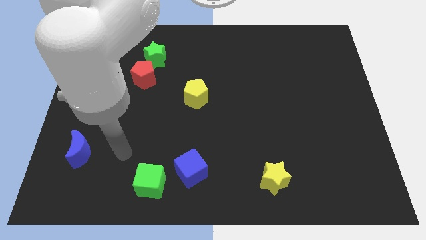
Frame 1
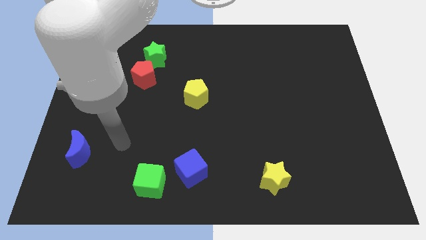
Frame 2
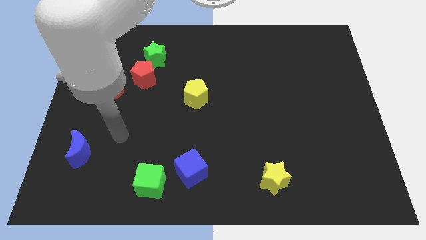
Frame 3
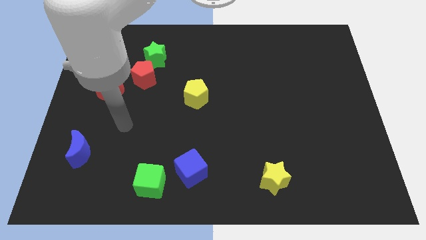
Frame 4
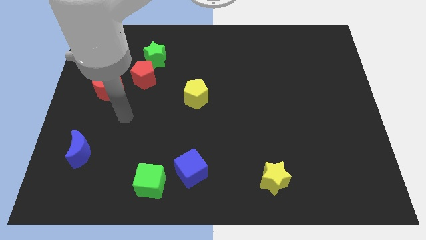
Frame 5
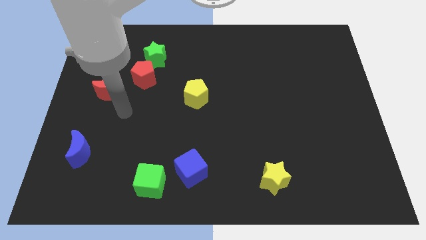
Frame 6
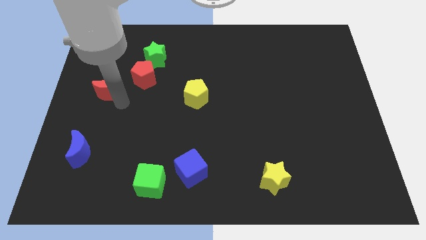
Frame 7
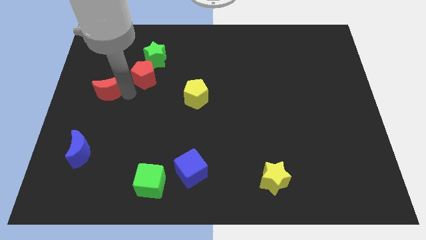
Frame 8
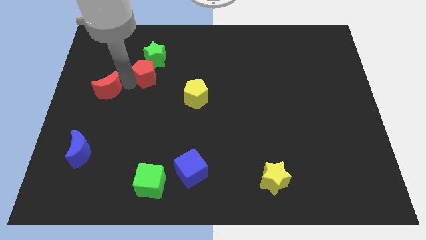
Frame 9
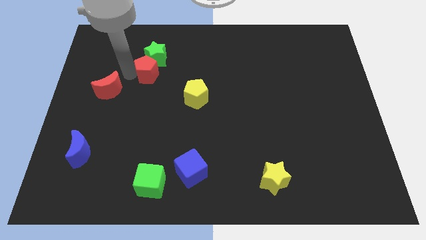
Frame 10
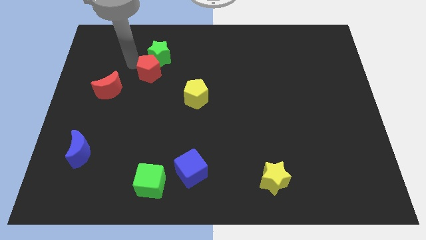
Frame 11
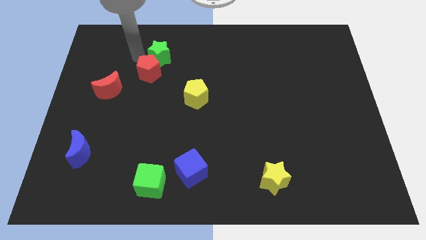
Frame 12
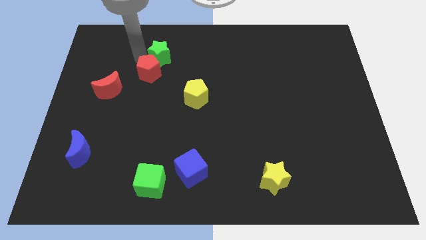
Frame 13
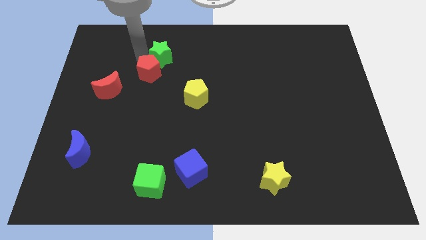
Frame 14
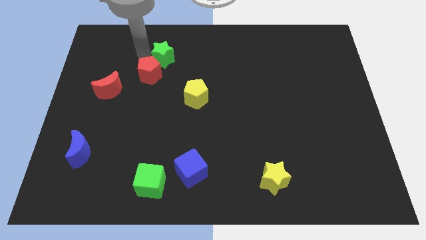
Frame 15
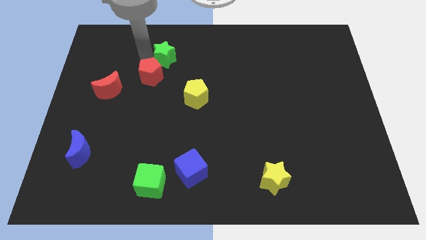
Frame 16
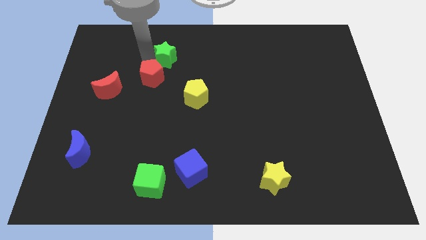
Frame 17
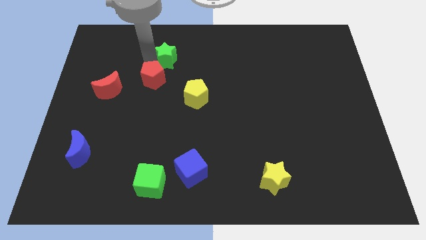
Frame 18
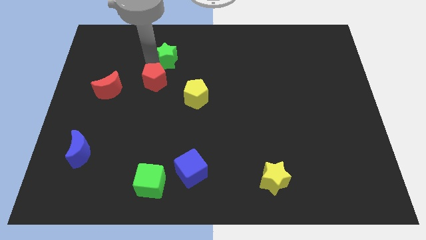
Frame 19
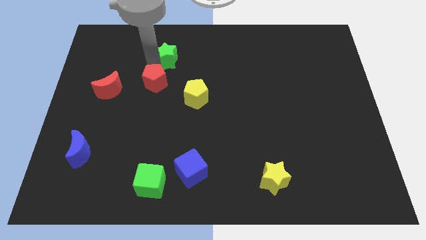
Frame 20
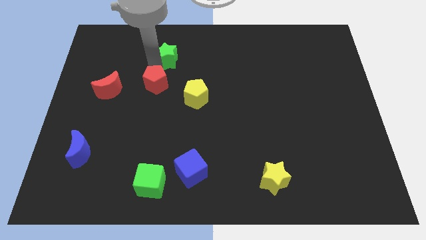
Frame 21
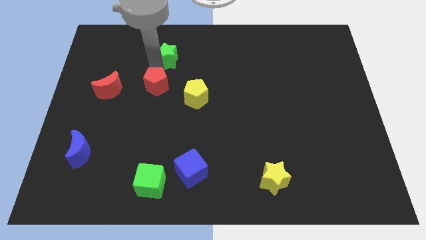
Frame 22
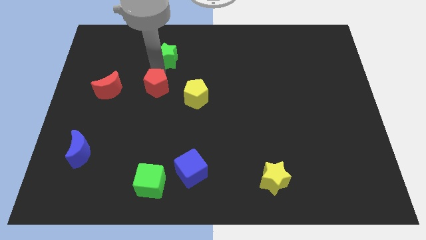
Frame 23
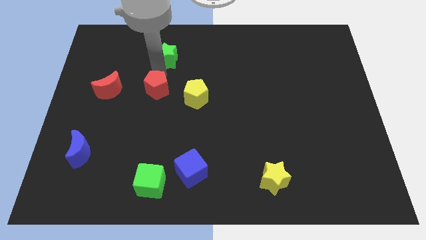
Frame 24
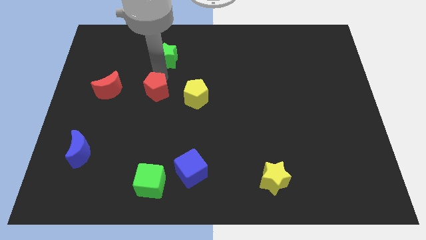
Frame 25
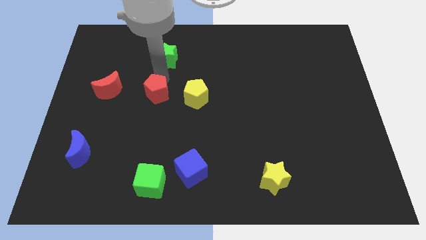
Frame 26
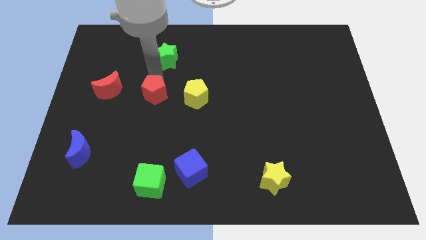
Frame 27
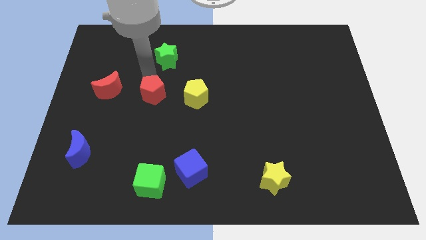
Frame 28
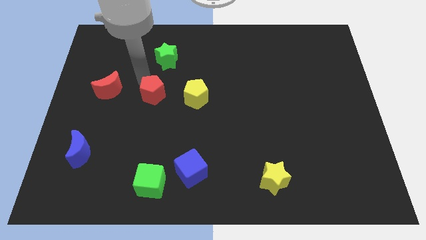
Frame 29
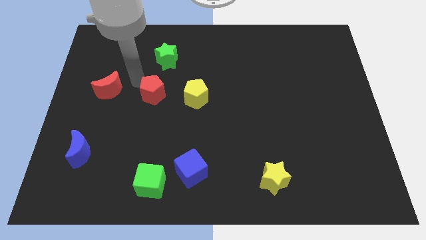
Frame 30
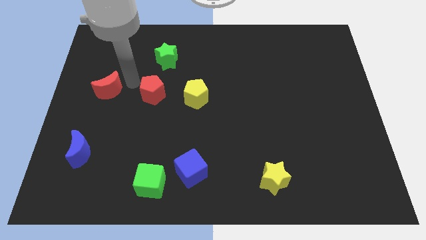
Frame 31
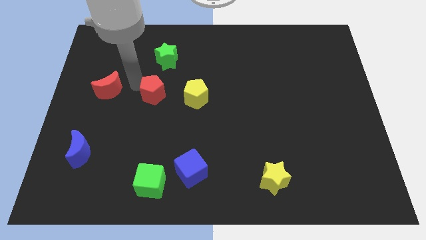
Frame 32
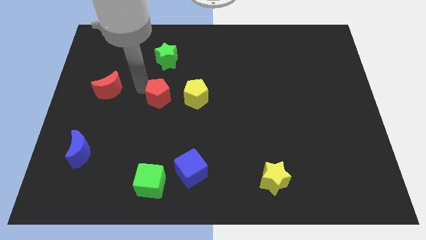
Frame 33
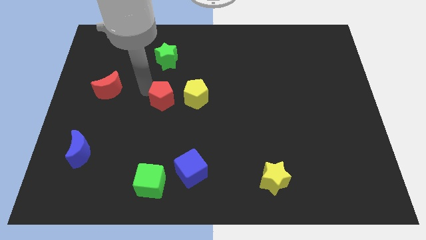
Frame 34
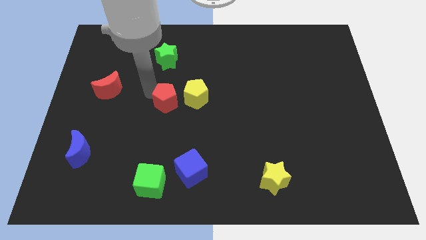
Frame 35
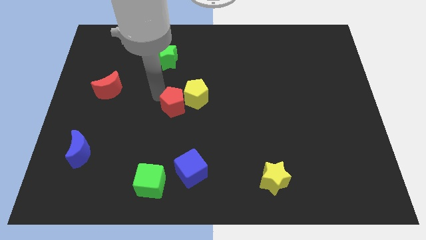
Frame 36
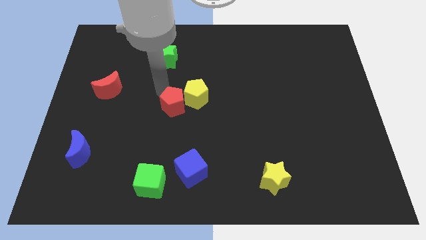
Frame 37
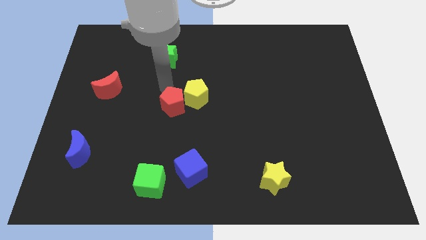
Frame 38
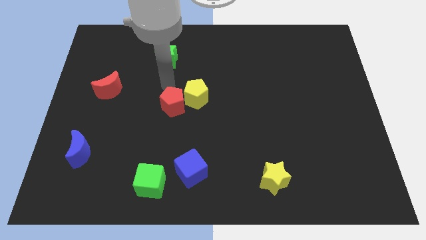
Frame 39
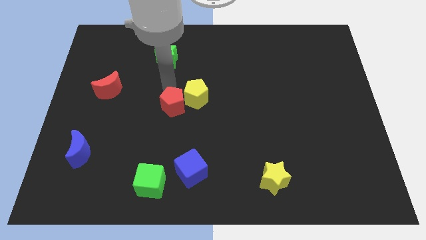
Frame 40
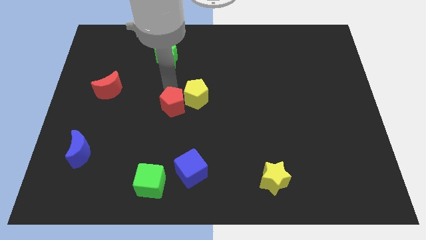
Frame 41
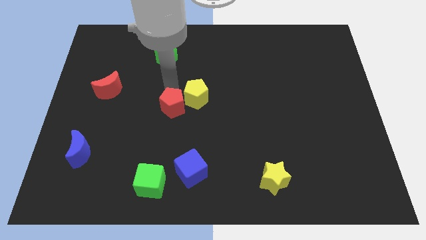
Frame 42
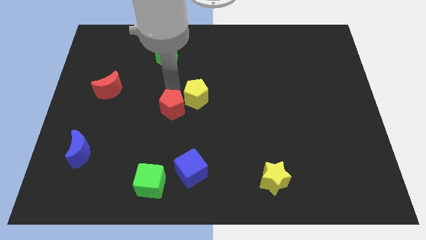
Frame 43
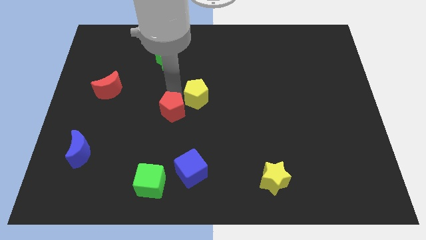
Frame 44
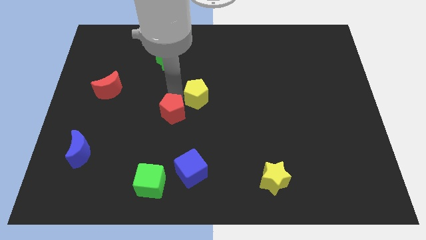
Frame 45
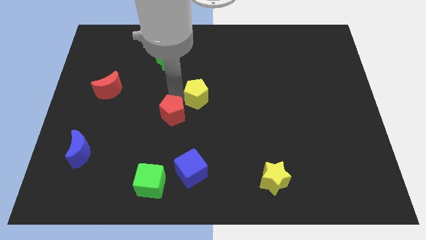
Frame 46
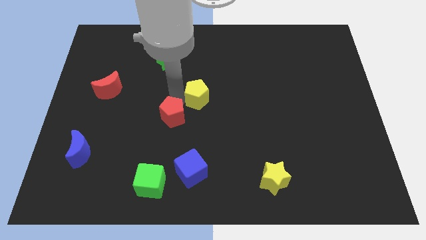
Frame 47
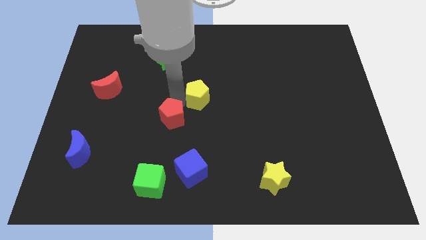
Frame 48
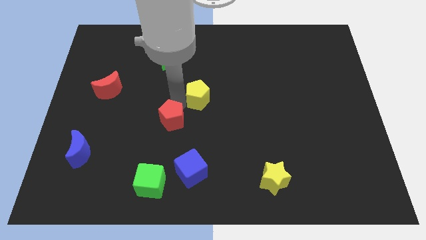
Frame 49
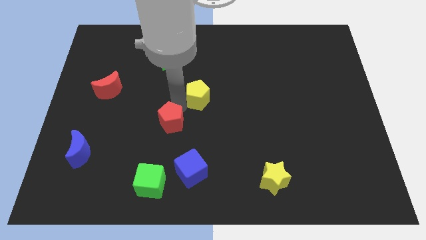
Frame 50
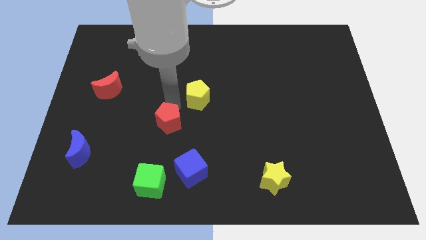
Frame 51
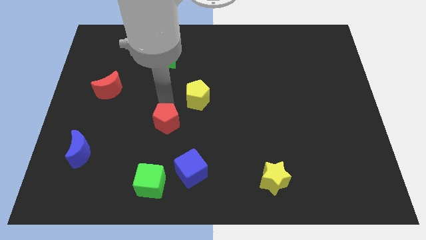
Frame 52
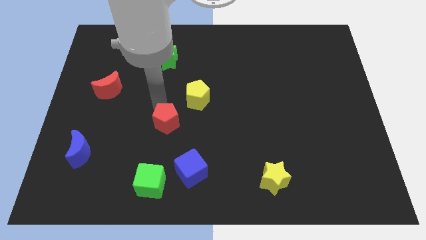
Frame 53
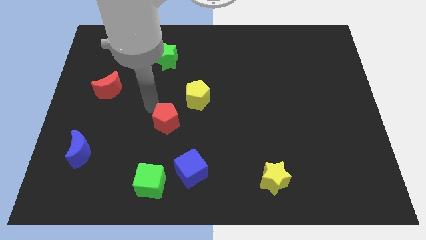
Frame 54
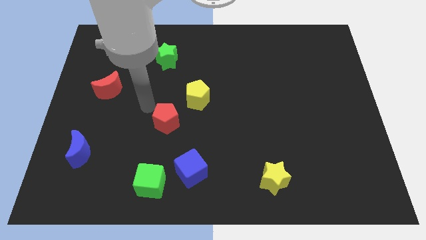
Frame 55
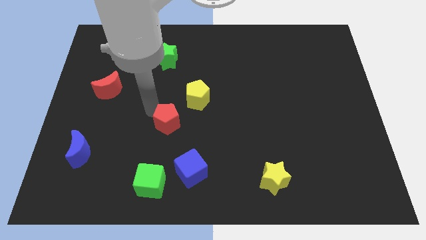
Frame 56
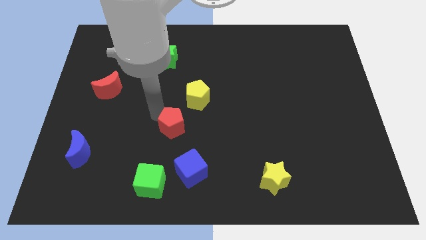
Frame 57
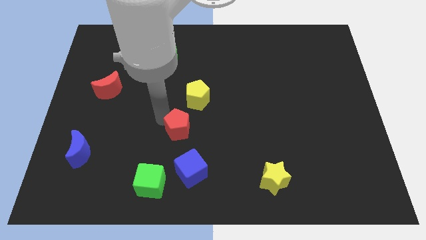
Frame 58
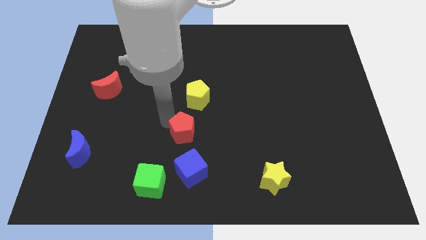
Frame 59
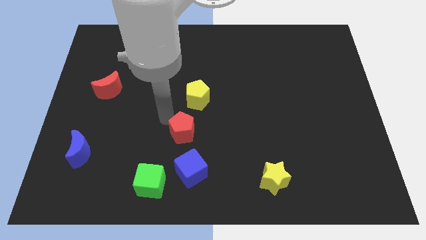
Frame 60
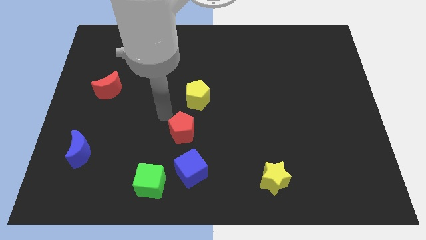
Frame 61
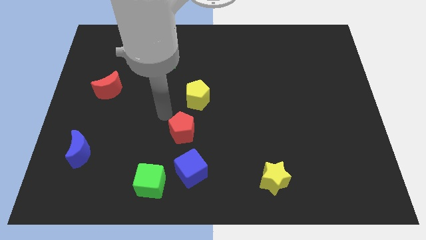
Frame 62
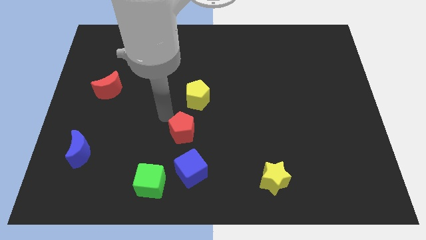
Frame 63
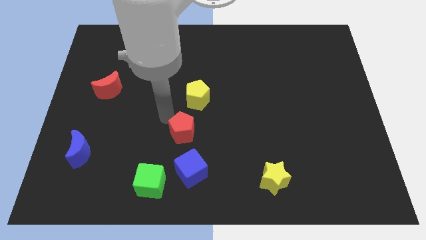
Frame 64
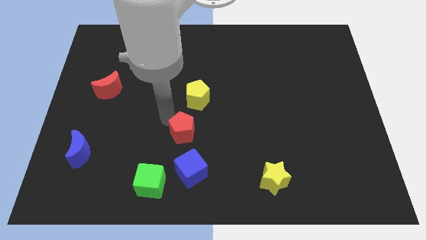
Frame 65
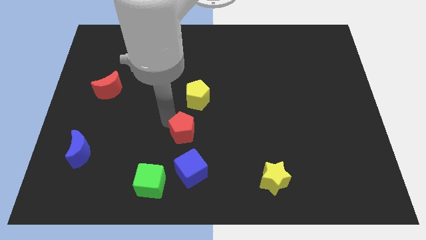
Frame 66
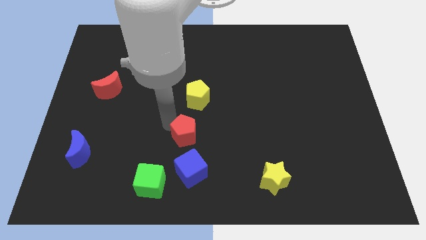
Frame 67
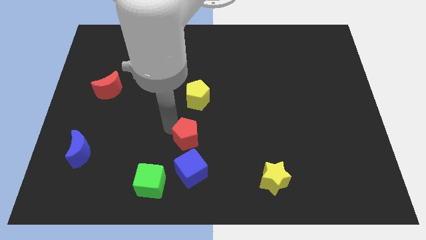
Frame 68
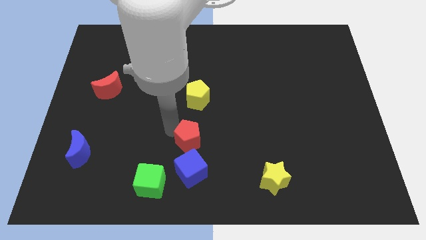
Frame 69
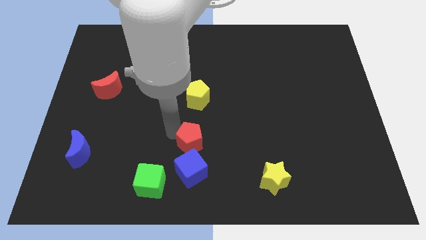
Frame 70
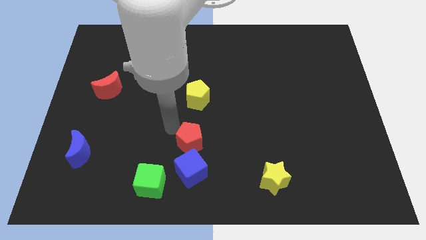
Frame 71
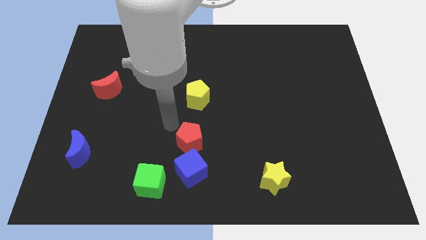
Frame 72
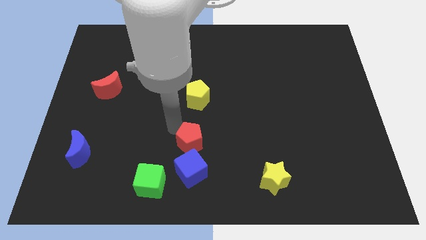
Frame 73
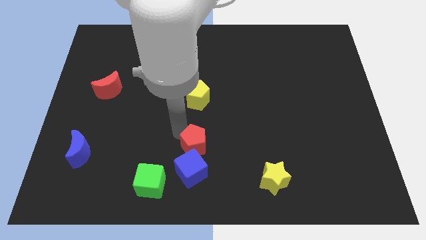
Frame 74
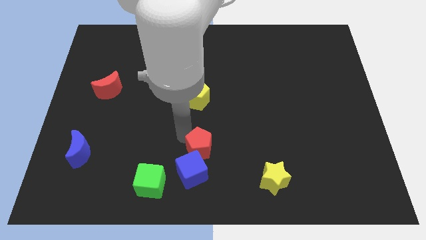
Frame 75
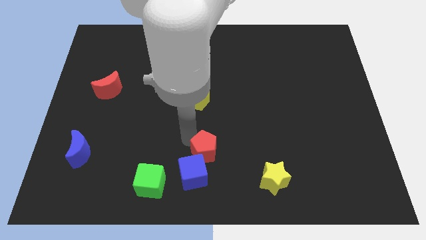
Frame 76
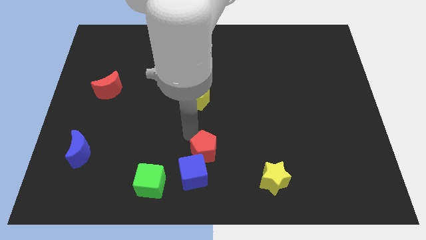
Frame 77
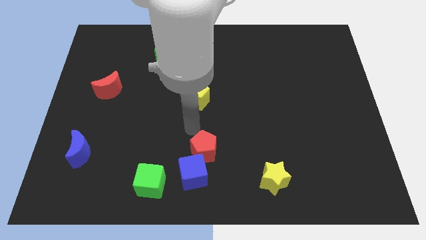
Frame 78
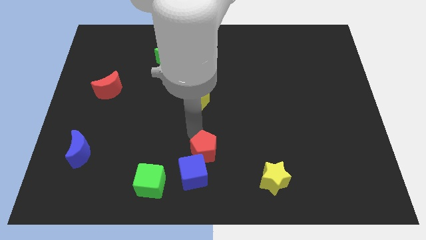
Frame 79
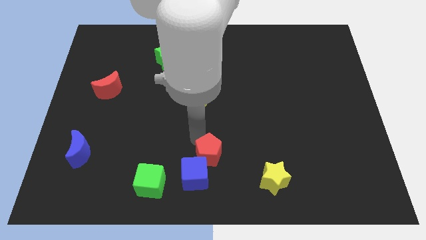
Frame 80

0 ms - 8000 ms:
put the red pentagon to the bottom

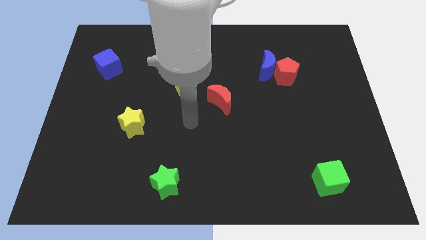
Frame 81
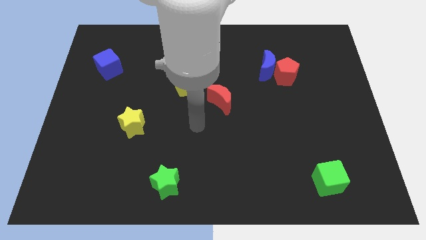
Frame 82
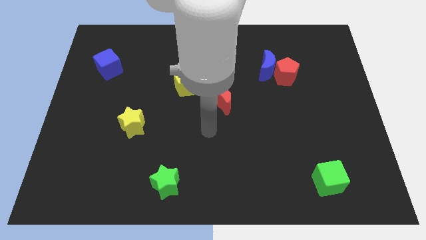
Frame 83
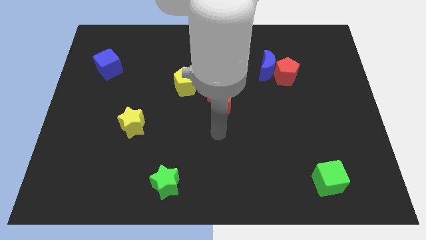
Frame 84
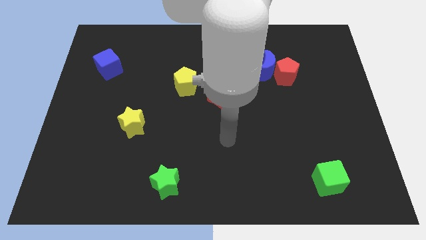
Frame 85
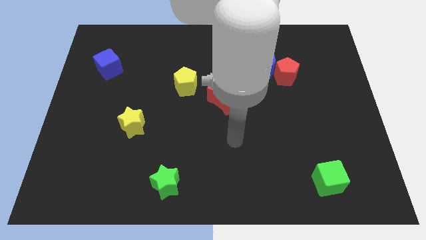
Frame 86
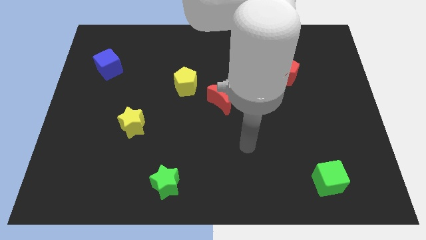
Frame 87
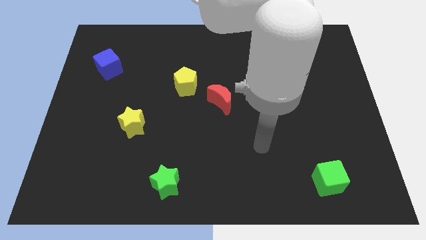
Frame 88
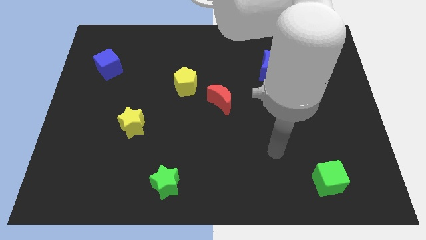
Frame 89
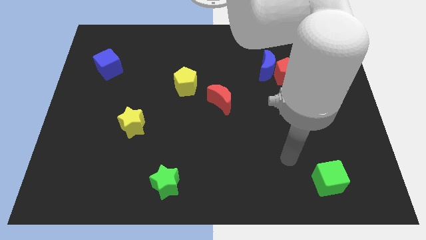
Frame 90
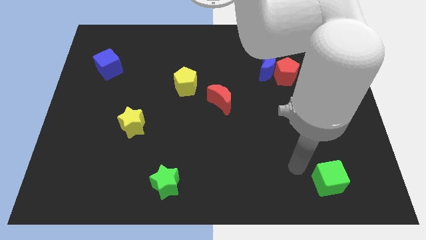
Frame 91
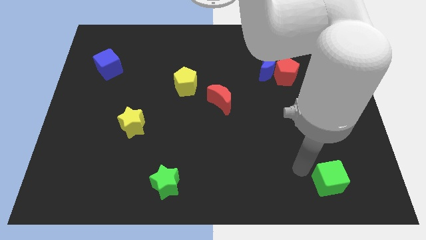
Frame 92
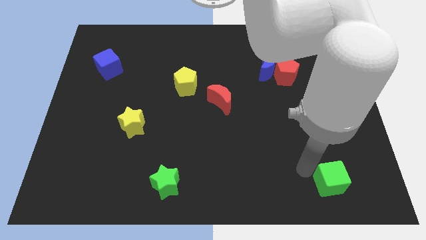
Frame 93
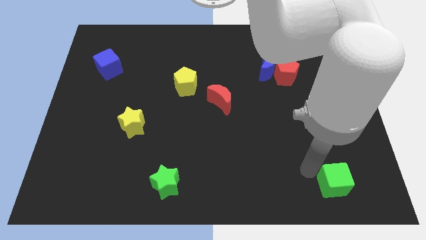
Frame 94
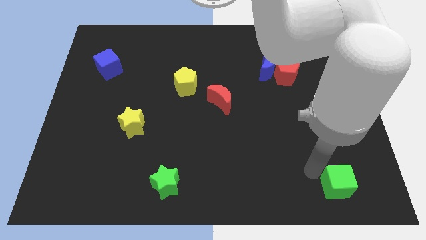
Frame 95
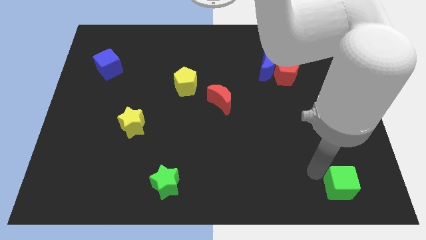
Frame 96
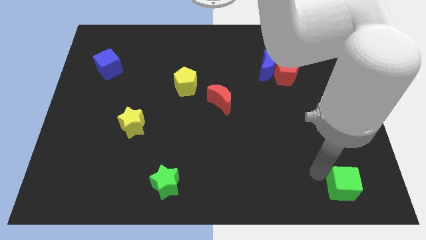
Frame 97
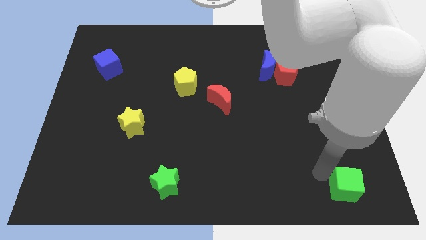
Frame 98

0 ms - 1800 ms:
push the green cube to the bottom right corner
